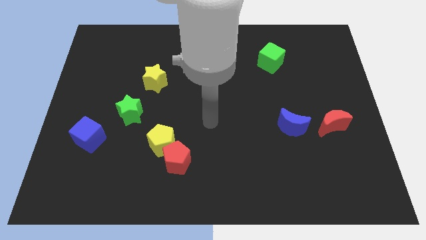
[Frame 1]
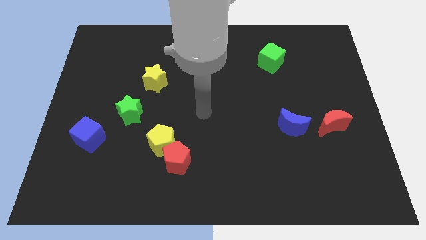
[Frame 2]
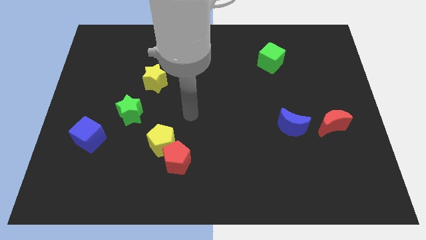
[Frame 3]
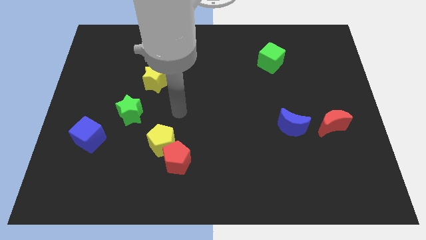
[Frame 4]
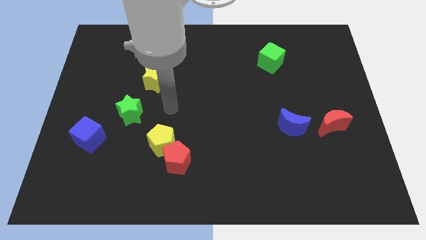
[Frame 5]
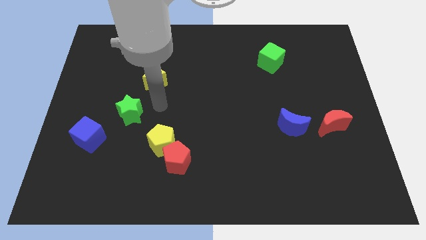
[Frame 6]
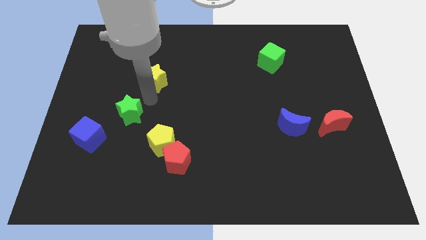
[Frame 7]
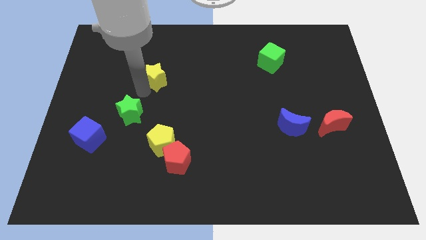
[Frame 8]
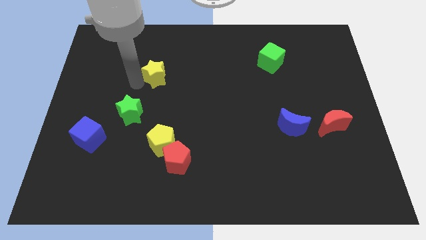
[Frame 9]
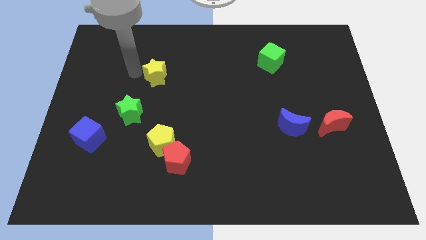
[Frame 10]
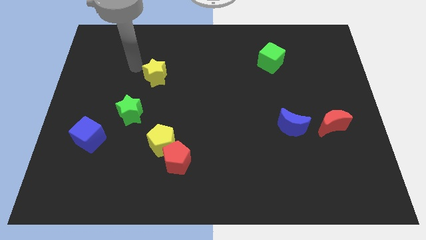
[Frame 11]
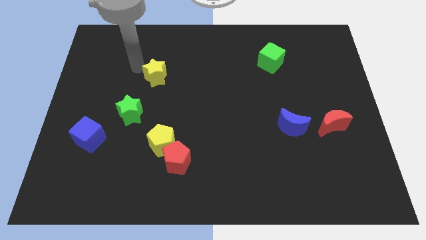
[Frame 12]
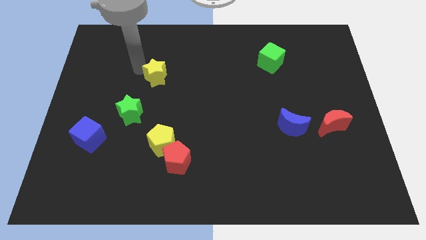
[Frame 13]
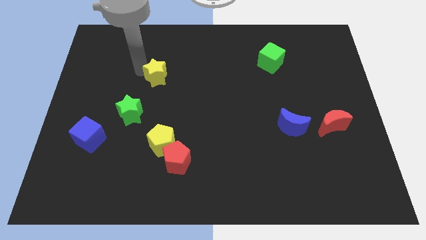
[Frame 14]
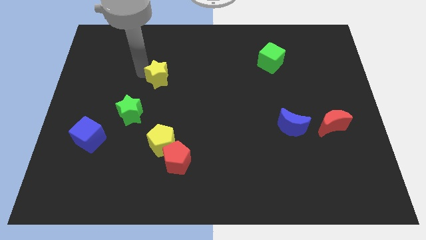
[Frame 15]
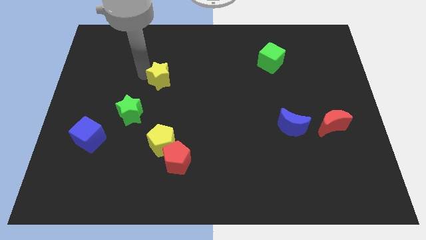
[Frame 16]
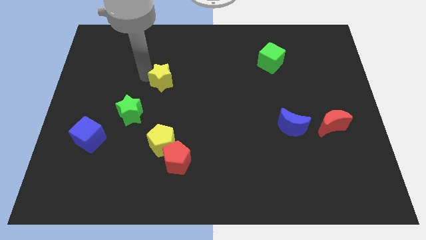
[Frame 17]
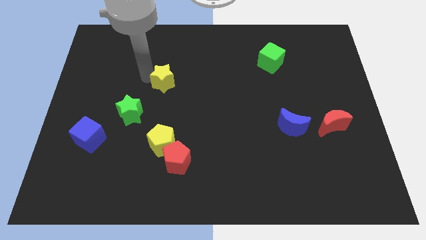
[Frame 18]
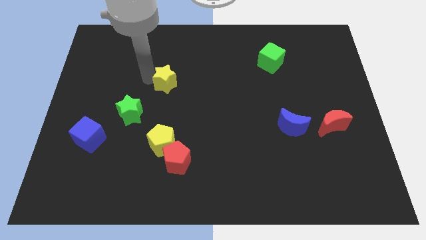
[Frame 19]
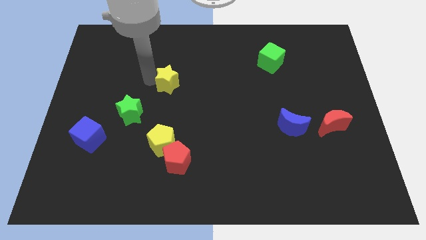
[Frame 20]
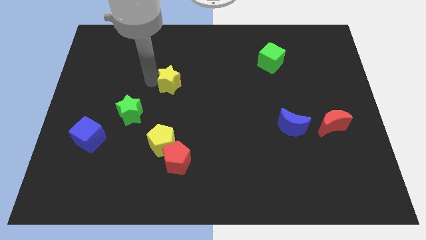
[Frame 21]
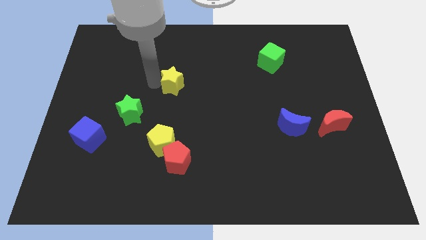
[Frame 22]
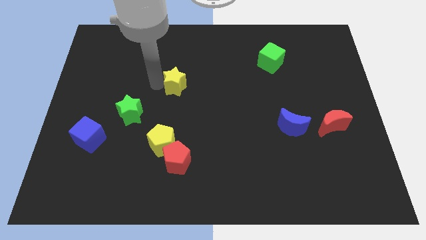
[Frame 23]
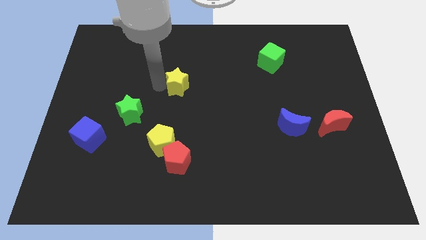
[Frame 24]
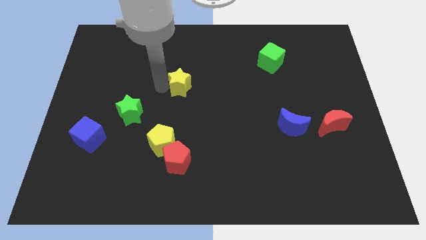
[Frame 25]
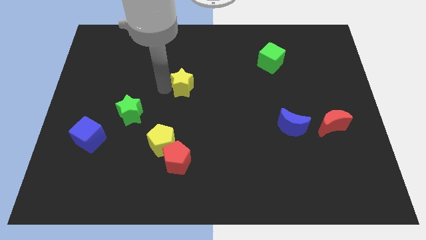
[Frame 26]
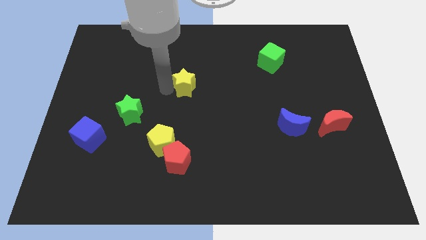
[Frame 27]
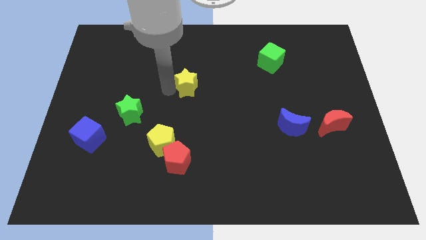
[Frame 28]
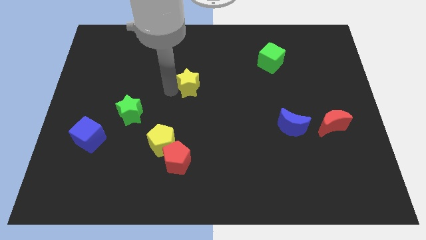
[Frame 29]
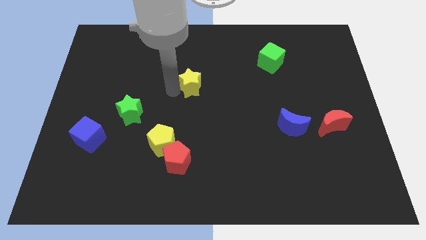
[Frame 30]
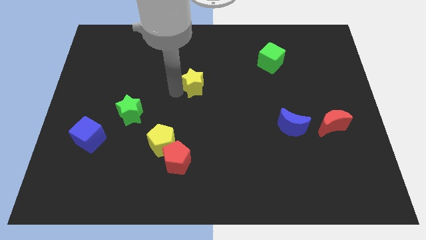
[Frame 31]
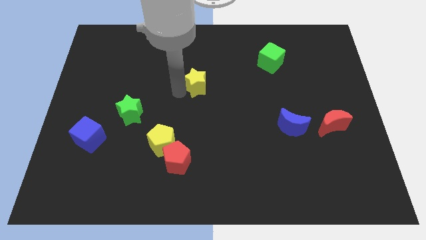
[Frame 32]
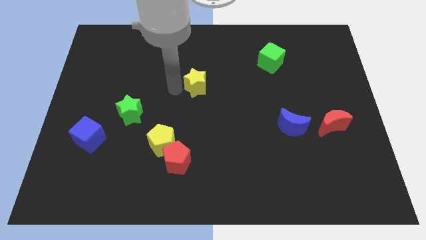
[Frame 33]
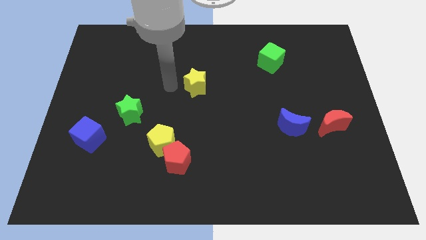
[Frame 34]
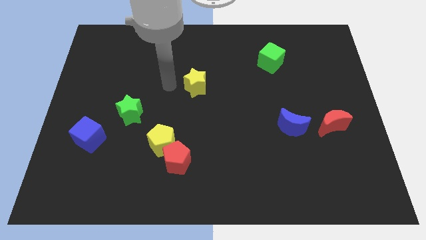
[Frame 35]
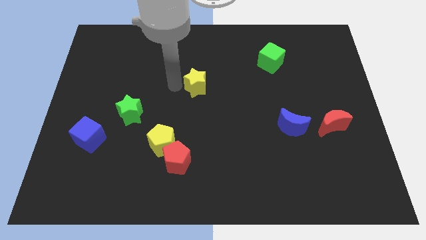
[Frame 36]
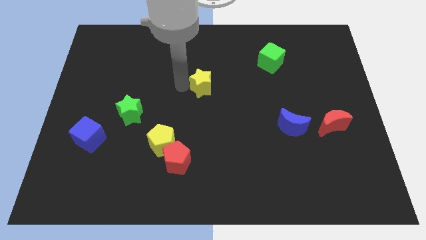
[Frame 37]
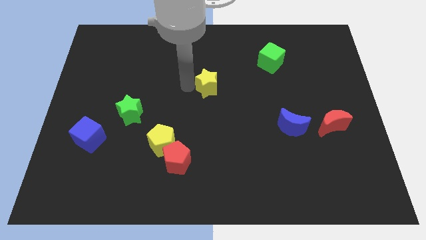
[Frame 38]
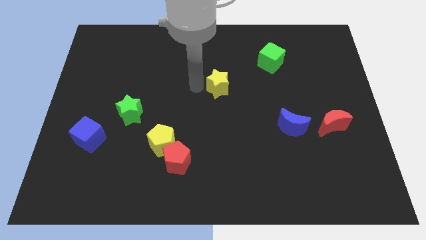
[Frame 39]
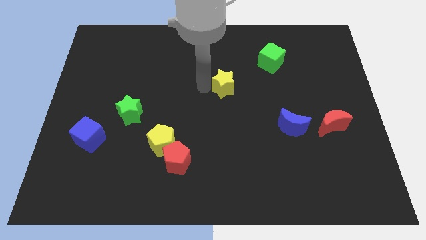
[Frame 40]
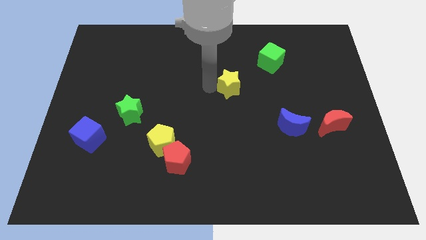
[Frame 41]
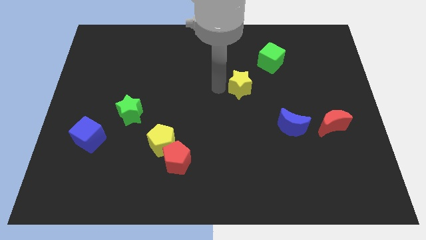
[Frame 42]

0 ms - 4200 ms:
move the yellow star right

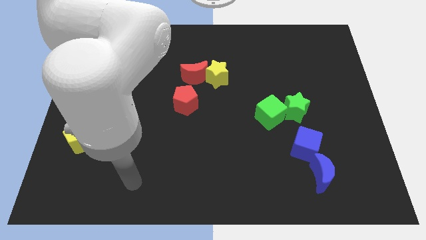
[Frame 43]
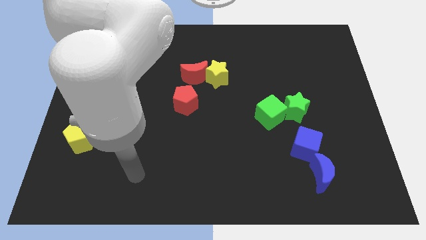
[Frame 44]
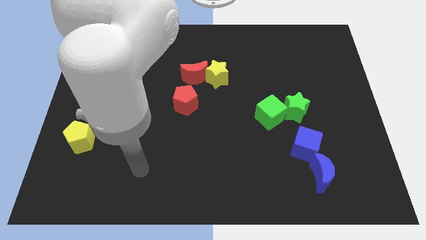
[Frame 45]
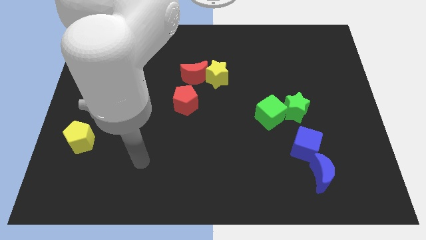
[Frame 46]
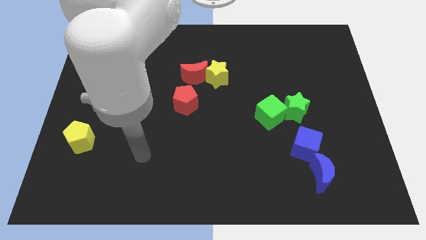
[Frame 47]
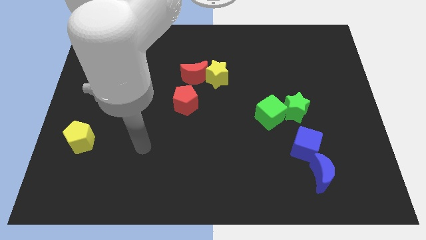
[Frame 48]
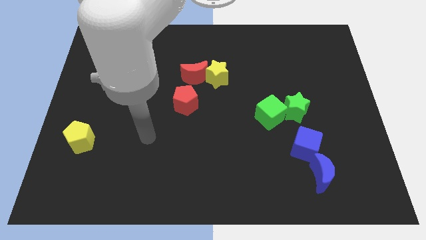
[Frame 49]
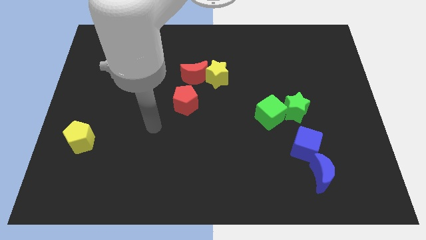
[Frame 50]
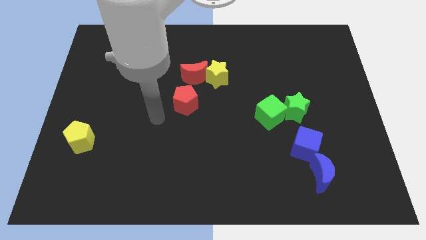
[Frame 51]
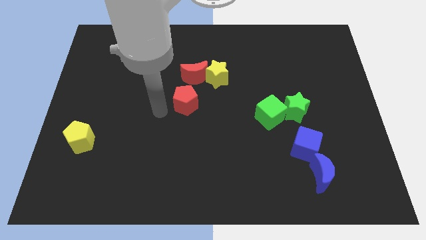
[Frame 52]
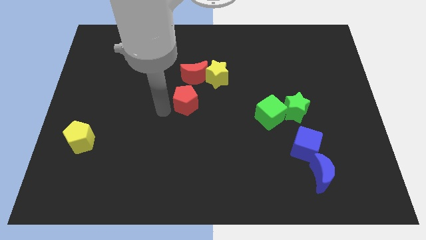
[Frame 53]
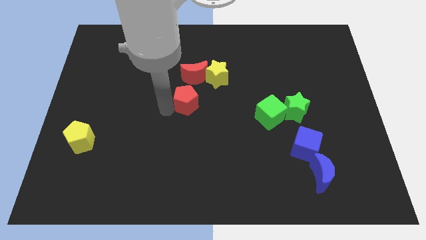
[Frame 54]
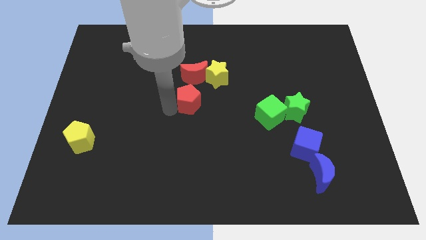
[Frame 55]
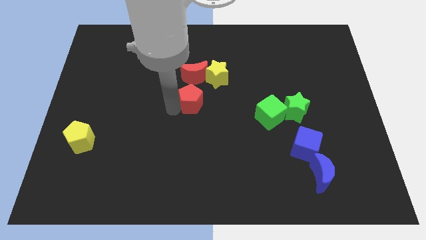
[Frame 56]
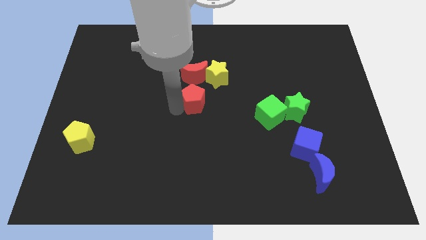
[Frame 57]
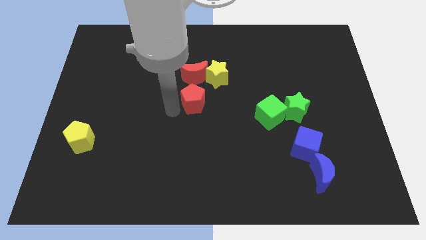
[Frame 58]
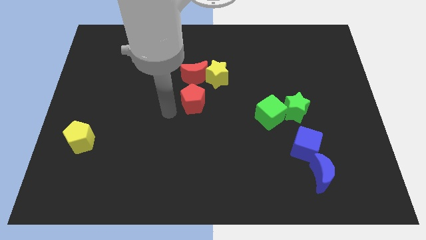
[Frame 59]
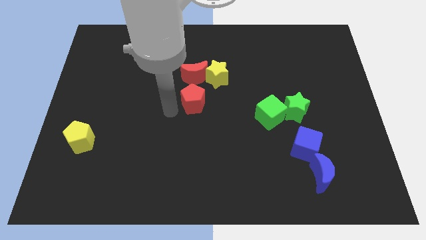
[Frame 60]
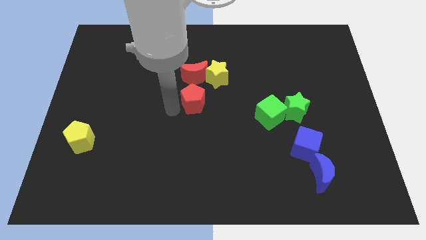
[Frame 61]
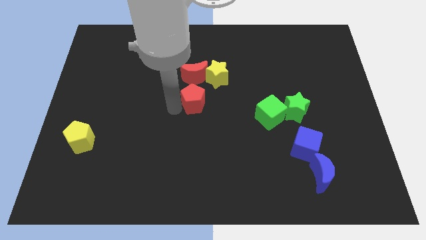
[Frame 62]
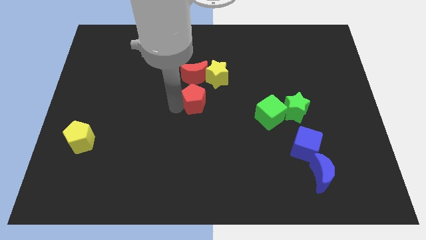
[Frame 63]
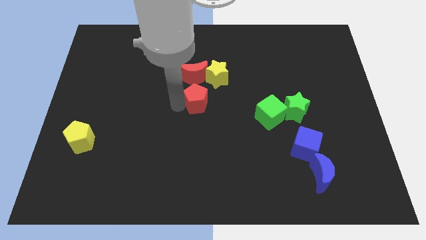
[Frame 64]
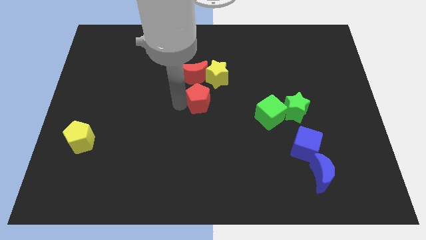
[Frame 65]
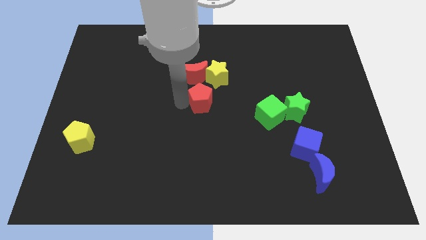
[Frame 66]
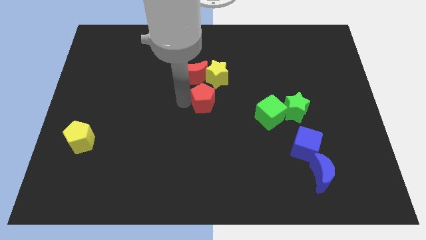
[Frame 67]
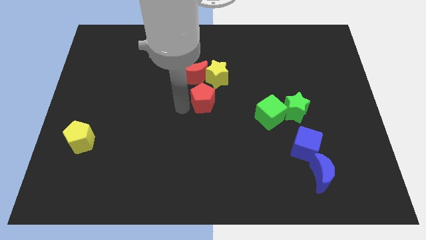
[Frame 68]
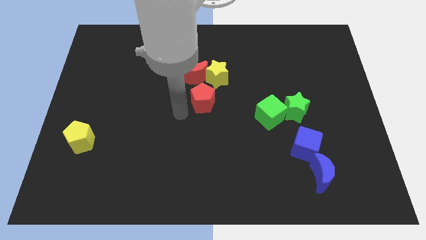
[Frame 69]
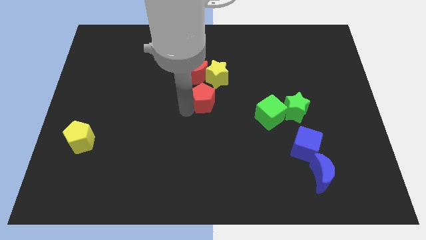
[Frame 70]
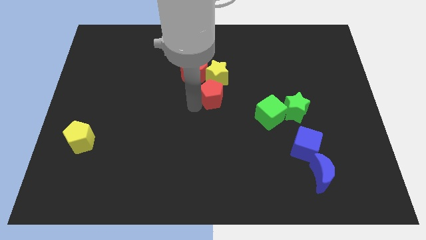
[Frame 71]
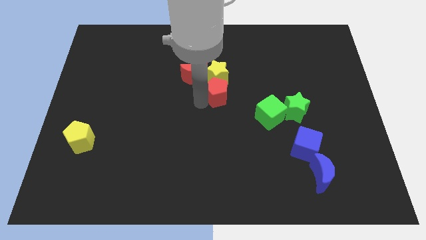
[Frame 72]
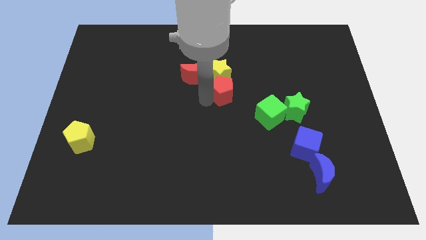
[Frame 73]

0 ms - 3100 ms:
push the red pentagon a little upwards and then to the right

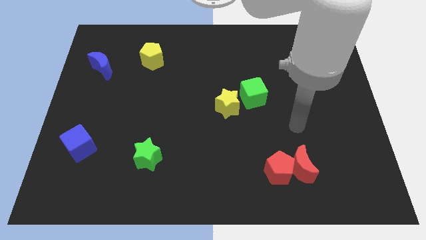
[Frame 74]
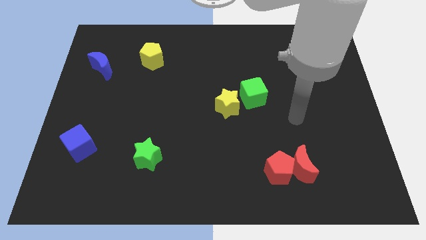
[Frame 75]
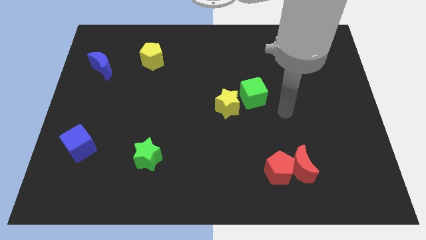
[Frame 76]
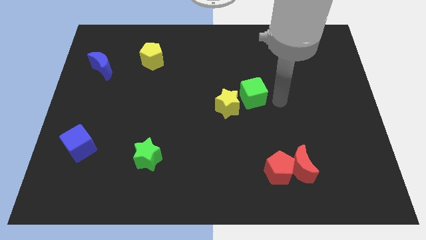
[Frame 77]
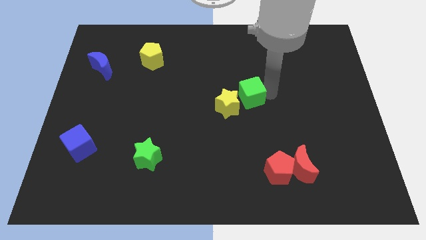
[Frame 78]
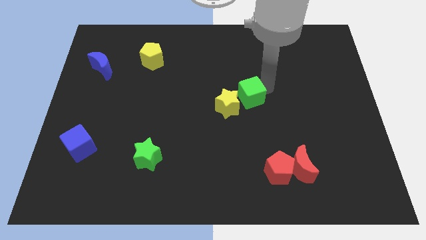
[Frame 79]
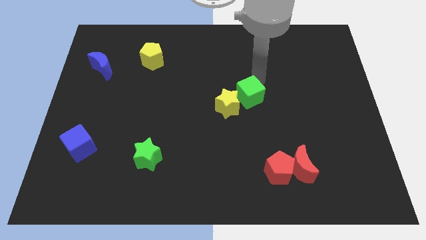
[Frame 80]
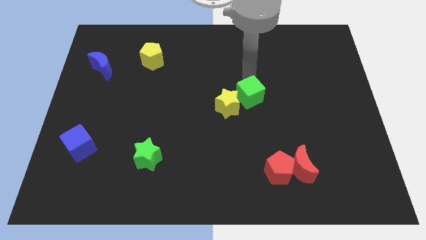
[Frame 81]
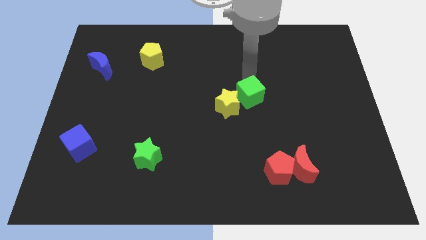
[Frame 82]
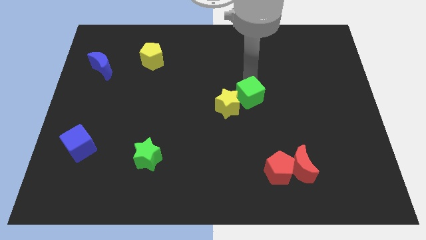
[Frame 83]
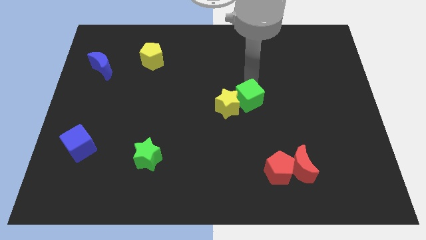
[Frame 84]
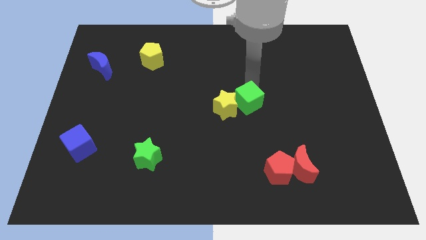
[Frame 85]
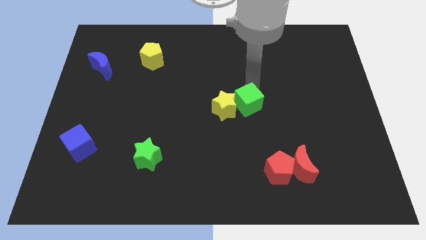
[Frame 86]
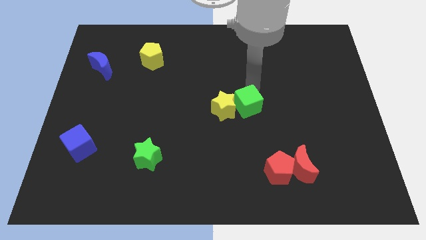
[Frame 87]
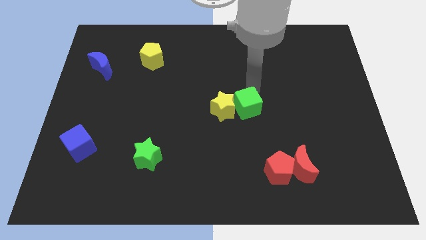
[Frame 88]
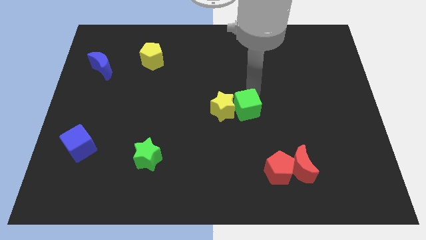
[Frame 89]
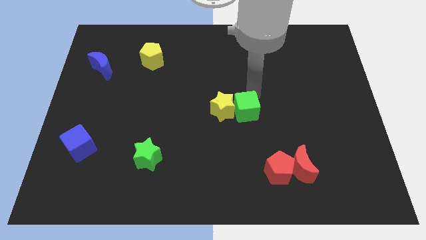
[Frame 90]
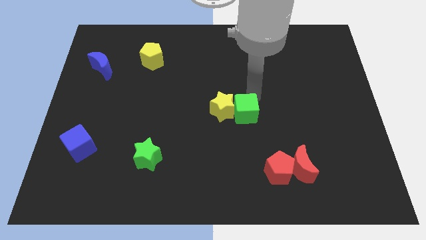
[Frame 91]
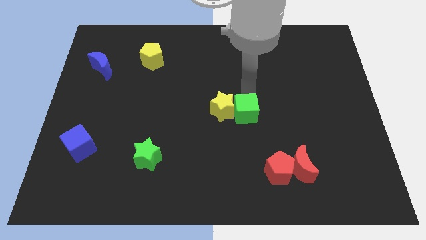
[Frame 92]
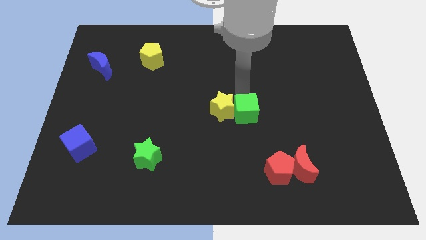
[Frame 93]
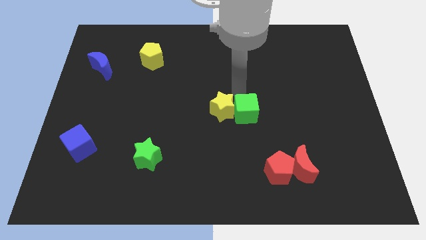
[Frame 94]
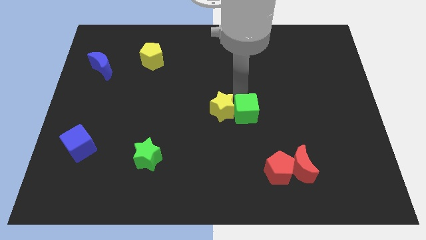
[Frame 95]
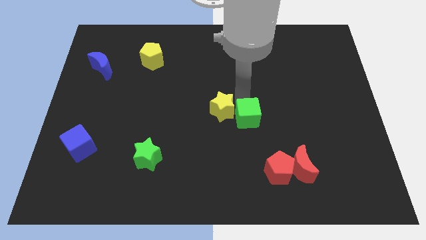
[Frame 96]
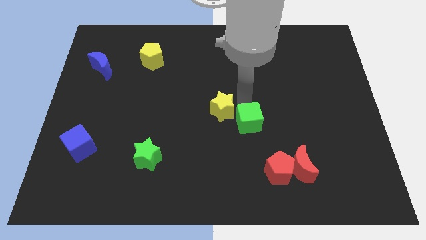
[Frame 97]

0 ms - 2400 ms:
slightly move the green cube downwards
